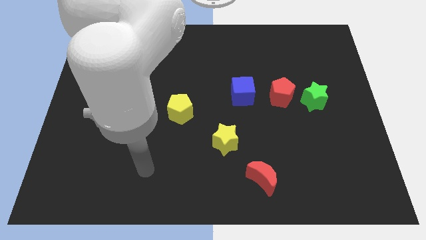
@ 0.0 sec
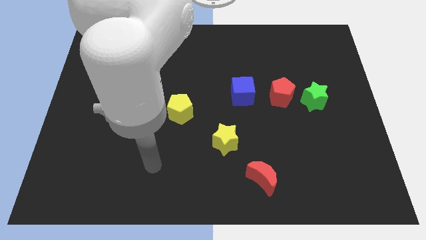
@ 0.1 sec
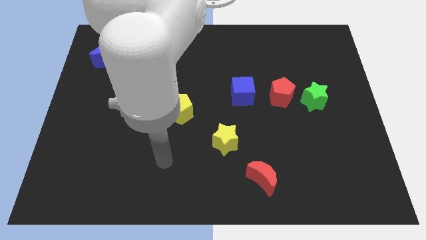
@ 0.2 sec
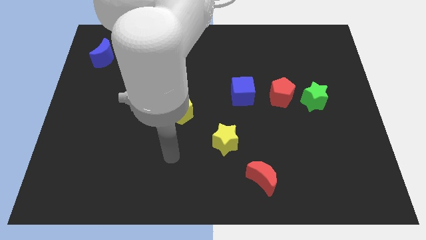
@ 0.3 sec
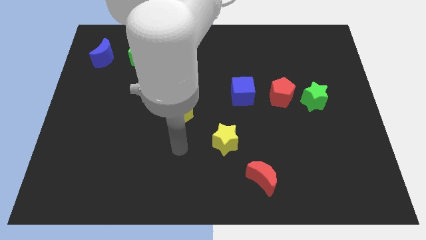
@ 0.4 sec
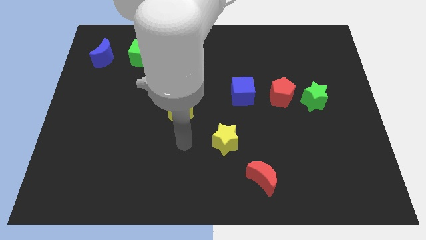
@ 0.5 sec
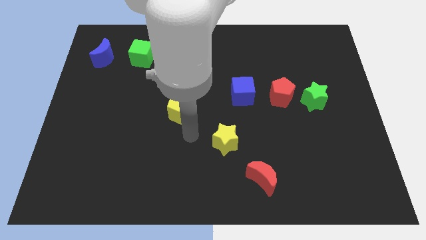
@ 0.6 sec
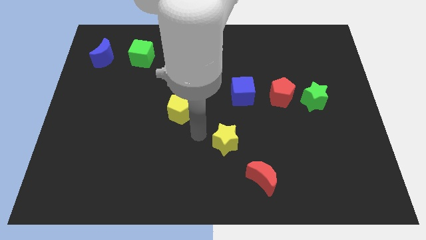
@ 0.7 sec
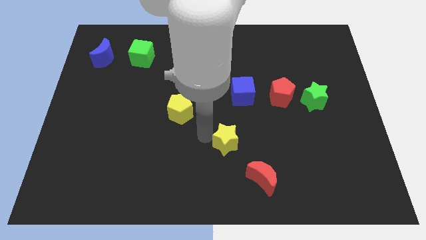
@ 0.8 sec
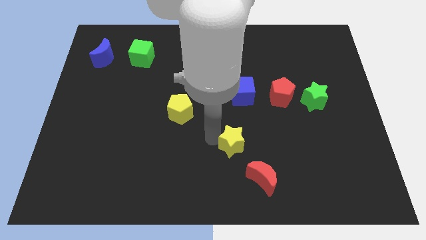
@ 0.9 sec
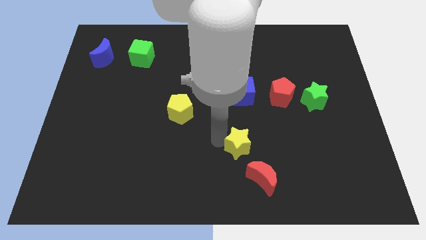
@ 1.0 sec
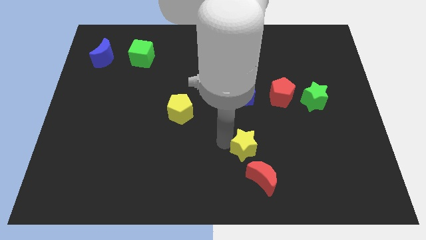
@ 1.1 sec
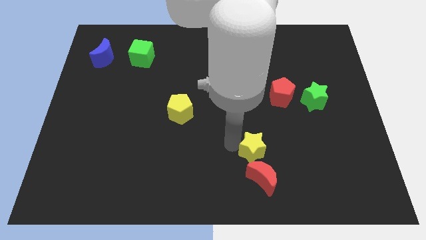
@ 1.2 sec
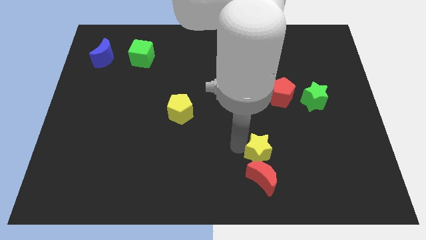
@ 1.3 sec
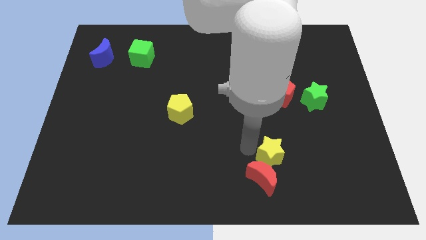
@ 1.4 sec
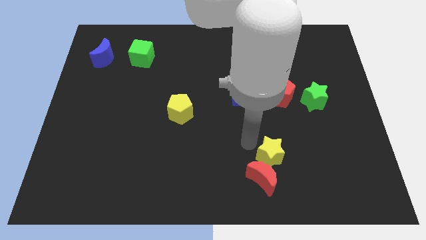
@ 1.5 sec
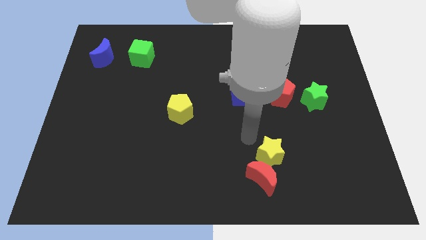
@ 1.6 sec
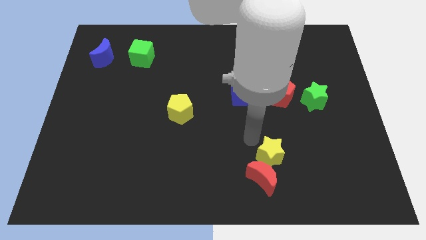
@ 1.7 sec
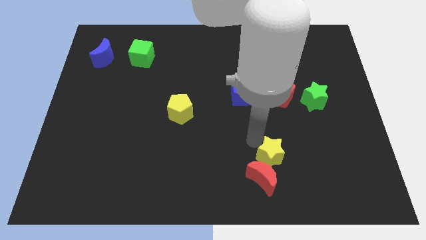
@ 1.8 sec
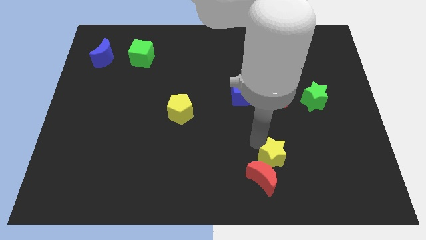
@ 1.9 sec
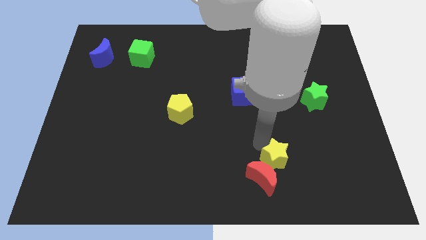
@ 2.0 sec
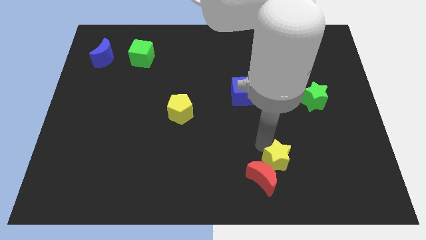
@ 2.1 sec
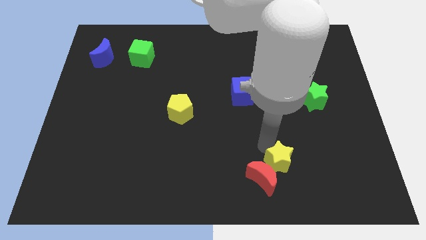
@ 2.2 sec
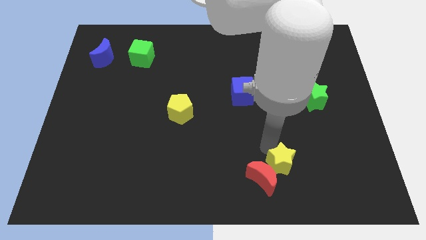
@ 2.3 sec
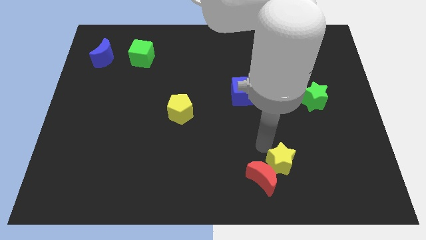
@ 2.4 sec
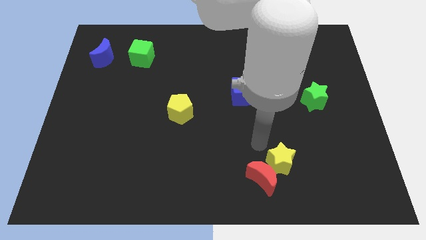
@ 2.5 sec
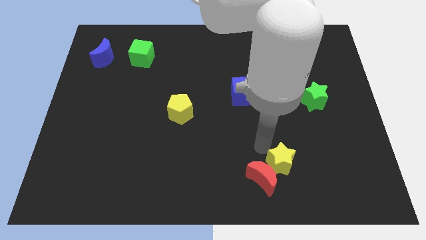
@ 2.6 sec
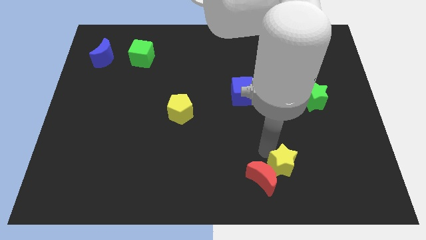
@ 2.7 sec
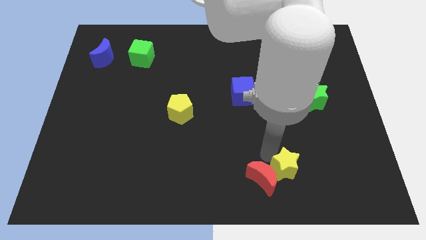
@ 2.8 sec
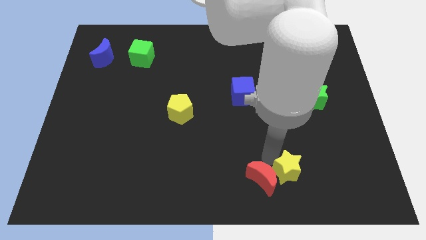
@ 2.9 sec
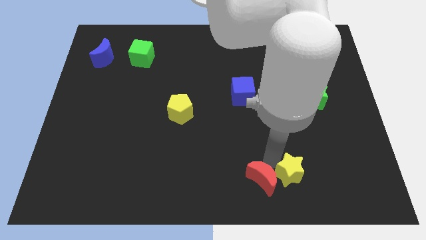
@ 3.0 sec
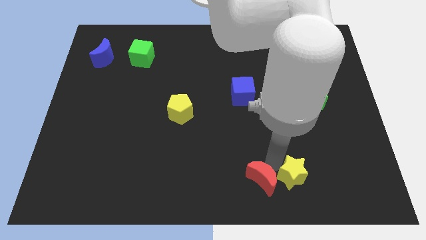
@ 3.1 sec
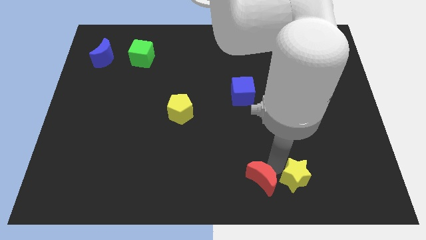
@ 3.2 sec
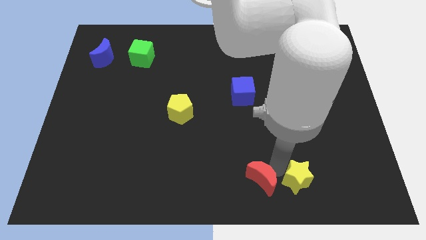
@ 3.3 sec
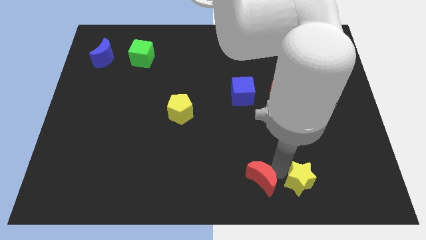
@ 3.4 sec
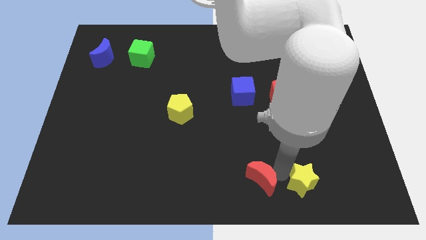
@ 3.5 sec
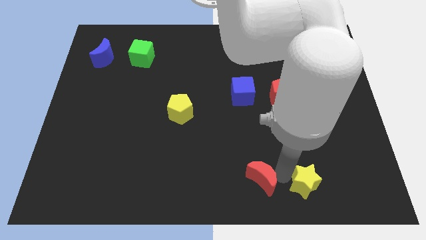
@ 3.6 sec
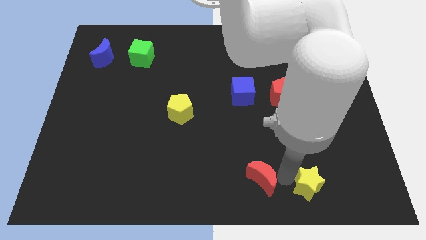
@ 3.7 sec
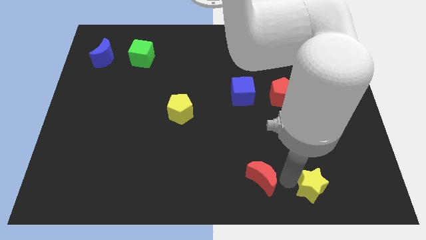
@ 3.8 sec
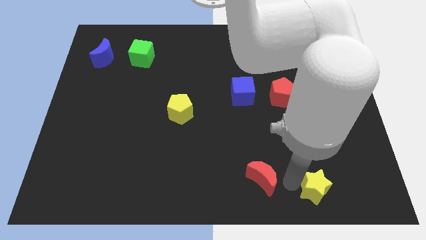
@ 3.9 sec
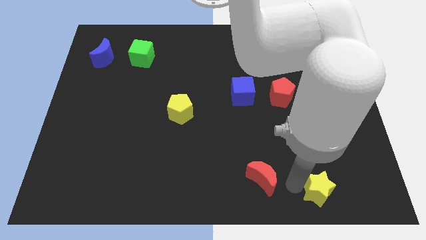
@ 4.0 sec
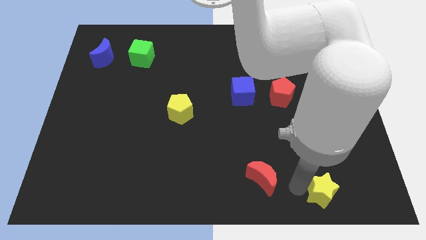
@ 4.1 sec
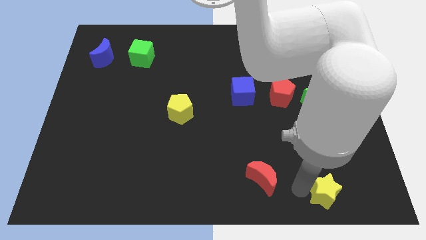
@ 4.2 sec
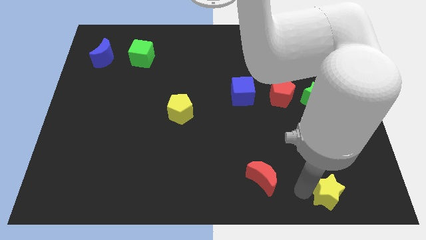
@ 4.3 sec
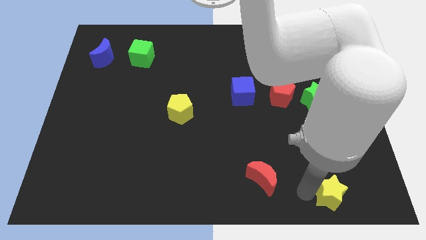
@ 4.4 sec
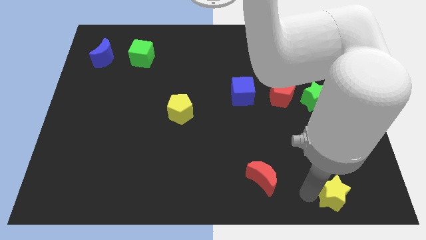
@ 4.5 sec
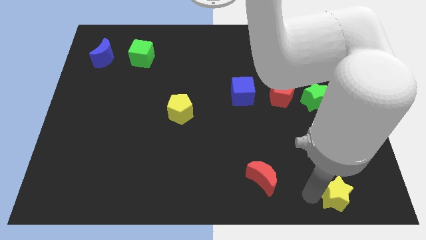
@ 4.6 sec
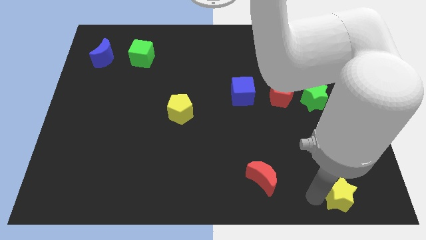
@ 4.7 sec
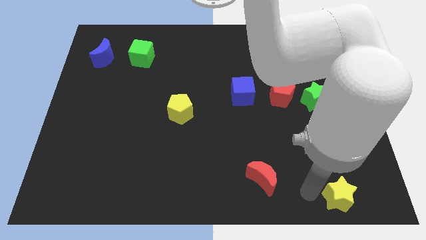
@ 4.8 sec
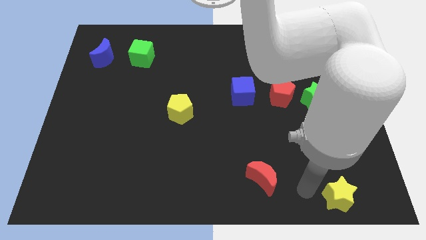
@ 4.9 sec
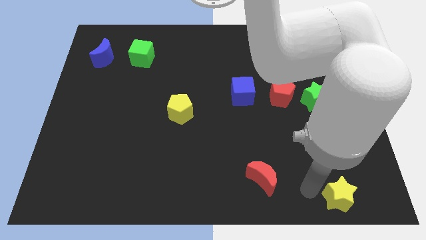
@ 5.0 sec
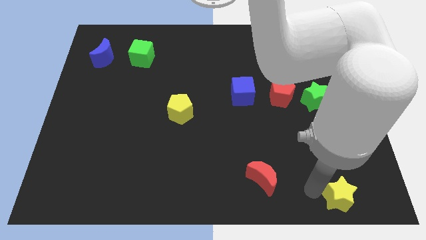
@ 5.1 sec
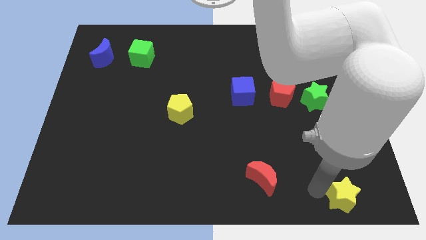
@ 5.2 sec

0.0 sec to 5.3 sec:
push the yellow star to the bottom right corner

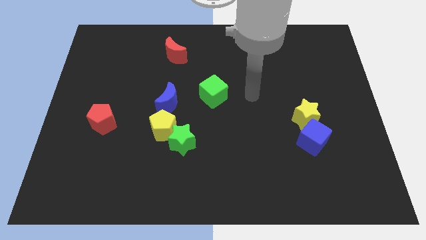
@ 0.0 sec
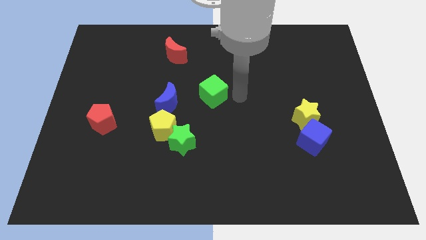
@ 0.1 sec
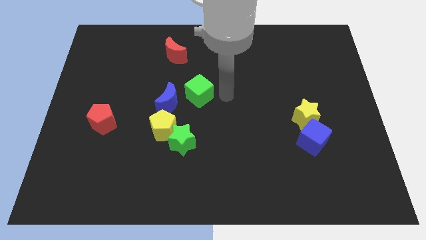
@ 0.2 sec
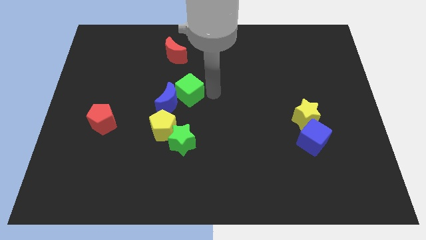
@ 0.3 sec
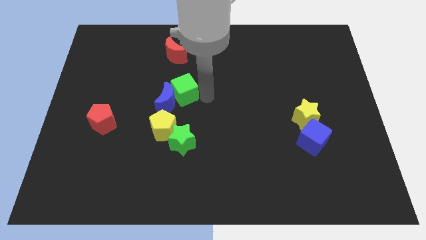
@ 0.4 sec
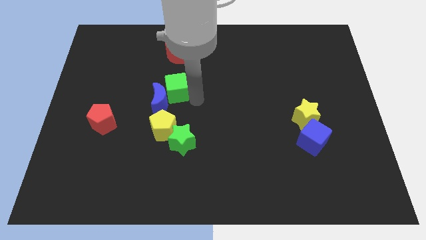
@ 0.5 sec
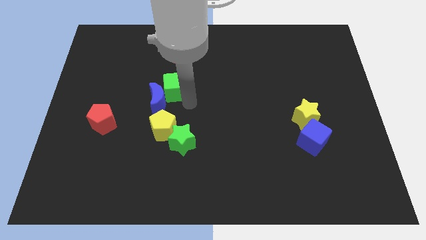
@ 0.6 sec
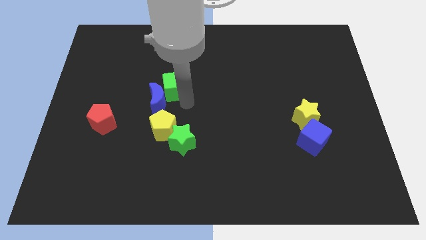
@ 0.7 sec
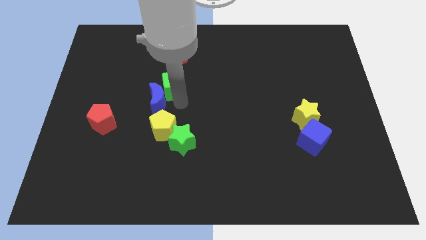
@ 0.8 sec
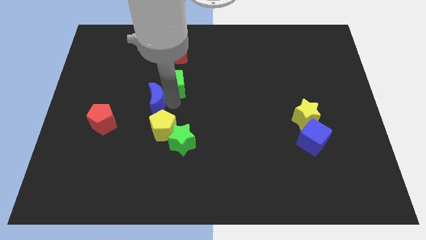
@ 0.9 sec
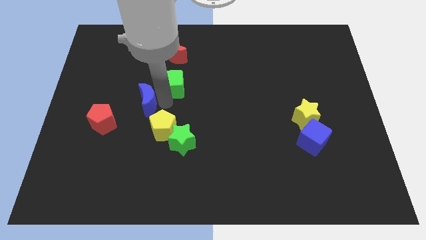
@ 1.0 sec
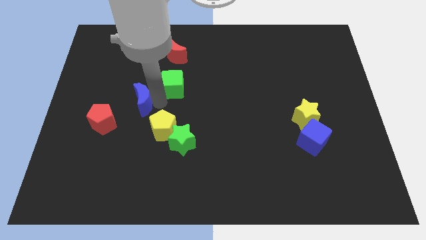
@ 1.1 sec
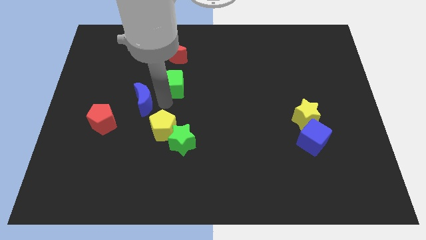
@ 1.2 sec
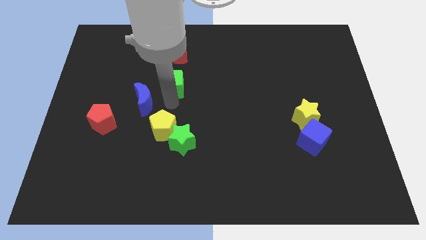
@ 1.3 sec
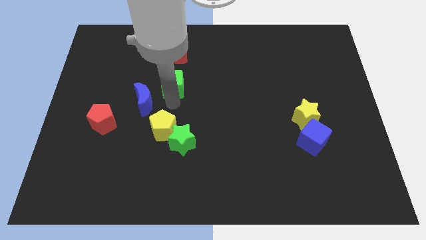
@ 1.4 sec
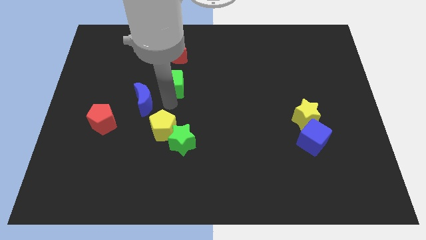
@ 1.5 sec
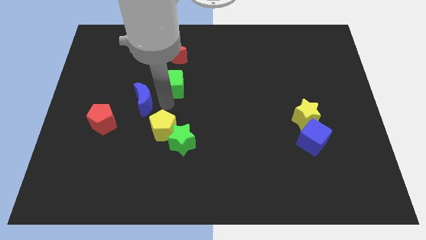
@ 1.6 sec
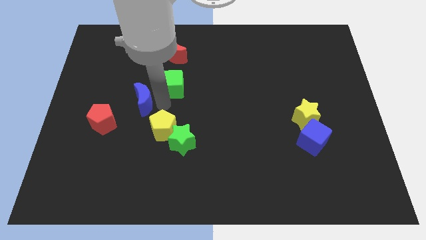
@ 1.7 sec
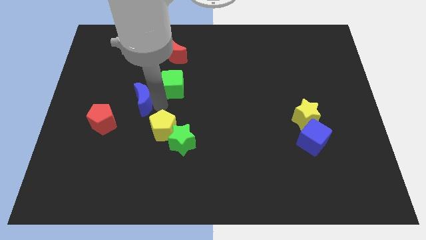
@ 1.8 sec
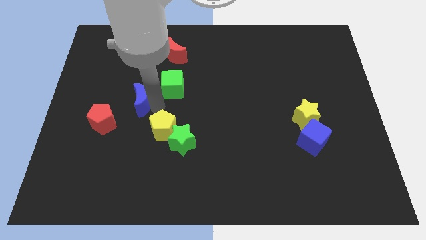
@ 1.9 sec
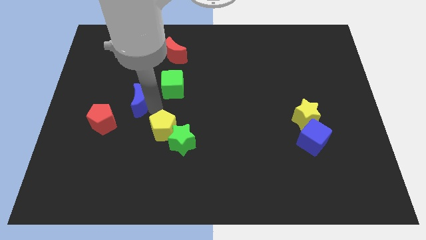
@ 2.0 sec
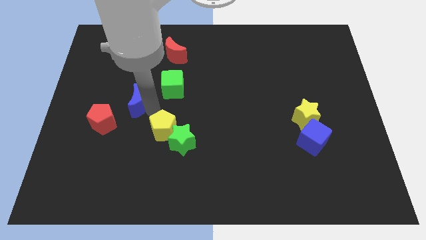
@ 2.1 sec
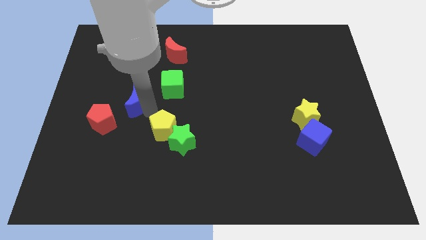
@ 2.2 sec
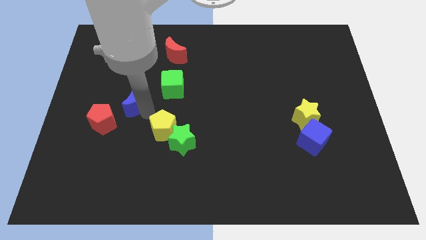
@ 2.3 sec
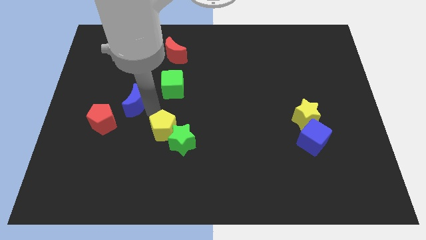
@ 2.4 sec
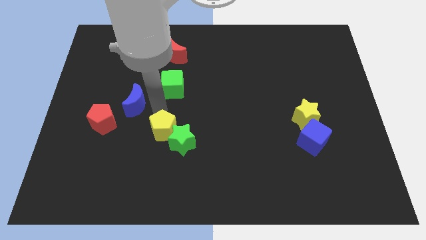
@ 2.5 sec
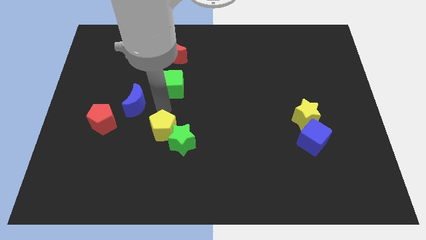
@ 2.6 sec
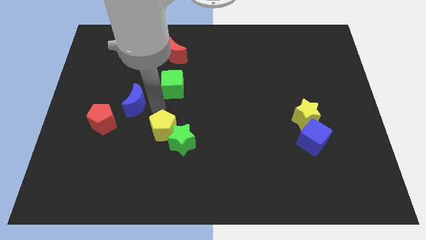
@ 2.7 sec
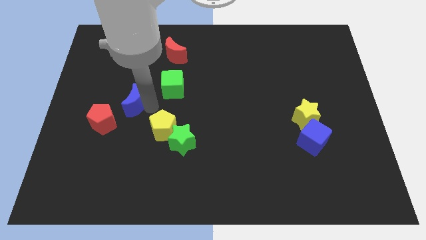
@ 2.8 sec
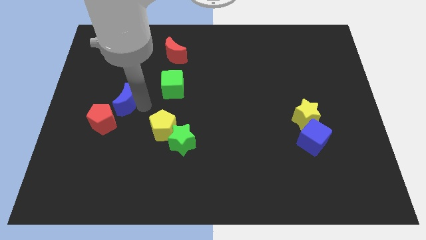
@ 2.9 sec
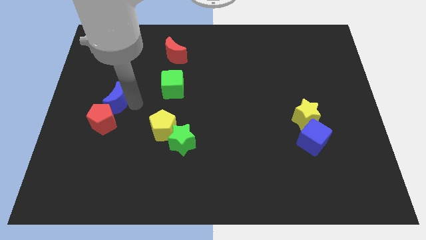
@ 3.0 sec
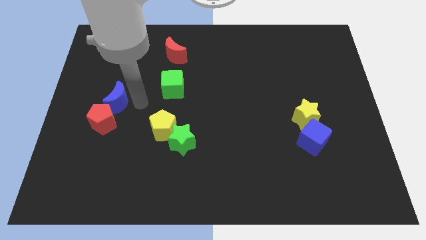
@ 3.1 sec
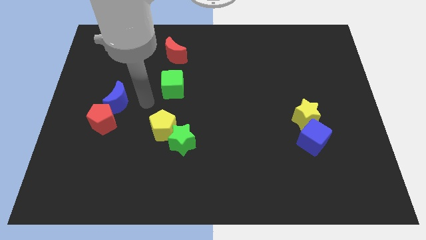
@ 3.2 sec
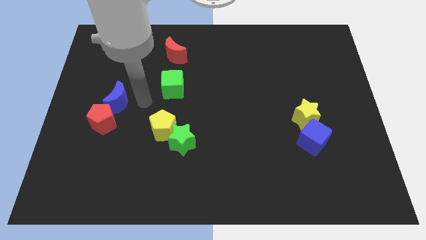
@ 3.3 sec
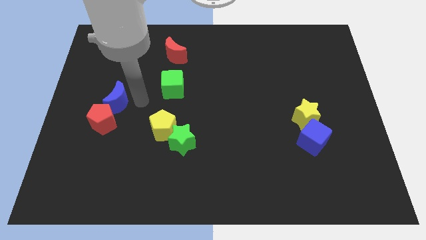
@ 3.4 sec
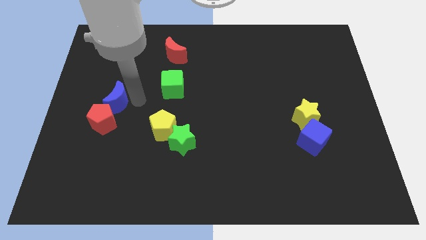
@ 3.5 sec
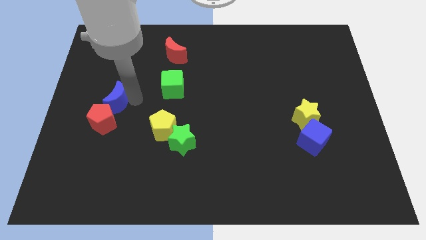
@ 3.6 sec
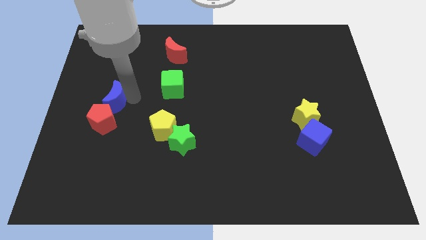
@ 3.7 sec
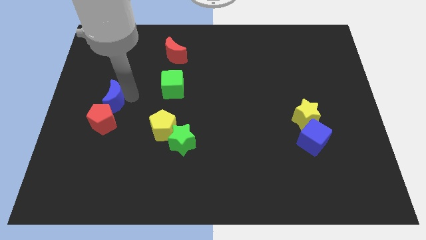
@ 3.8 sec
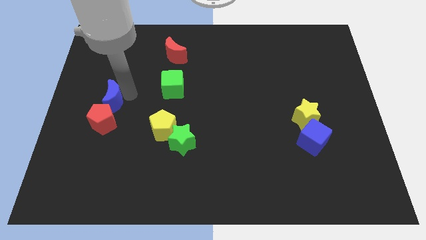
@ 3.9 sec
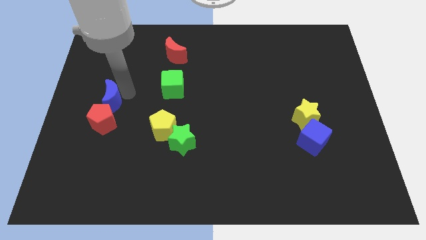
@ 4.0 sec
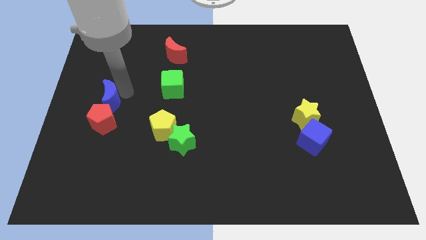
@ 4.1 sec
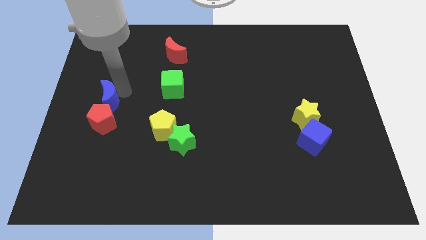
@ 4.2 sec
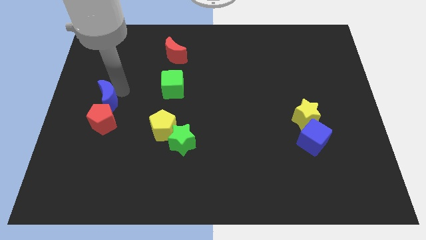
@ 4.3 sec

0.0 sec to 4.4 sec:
put the blue moon to the center left
